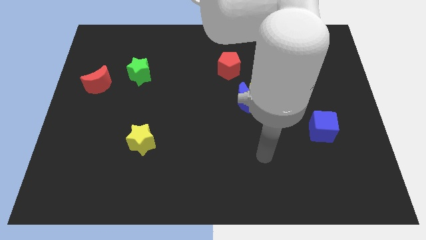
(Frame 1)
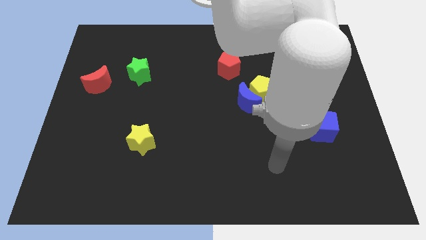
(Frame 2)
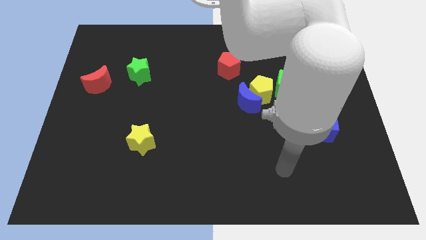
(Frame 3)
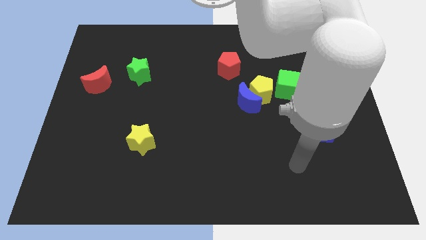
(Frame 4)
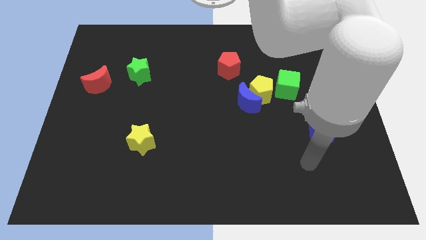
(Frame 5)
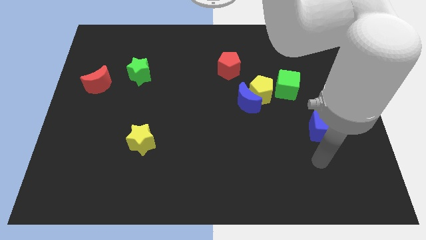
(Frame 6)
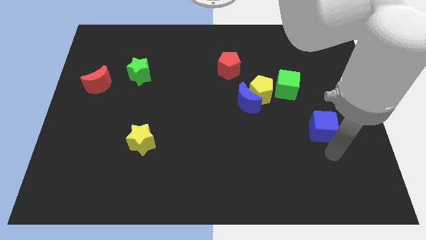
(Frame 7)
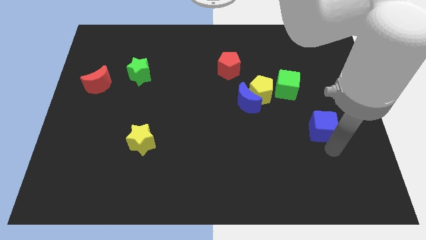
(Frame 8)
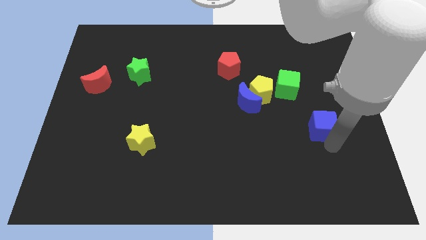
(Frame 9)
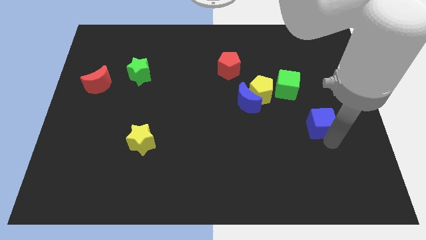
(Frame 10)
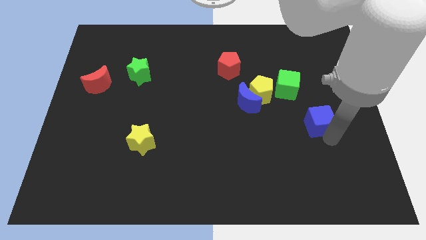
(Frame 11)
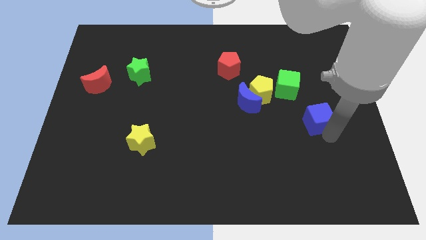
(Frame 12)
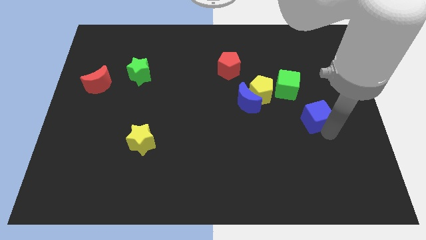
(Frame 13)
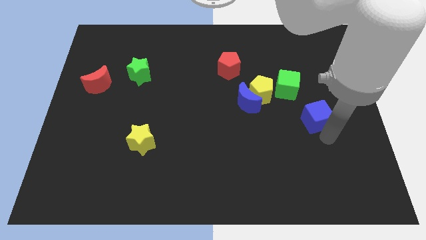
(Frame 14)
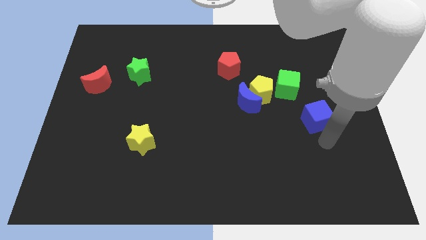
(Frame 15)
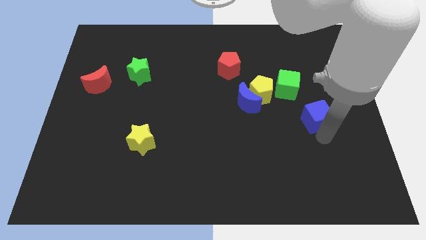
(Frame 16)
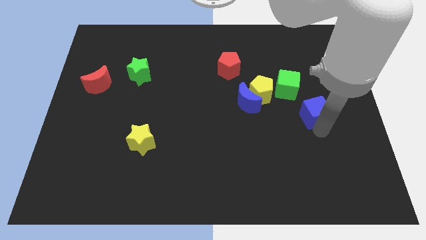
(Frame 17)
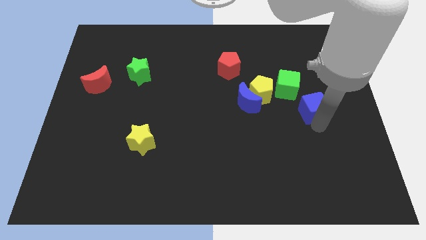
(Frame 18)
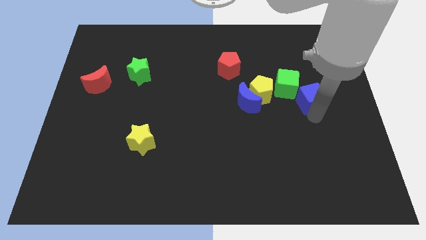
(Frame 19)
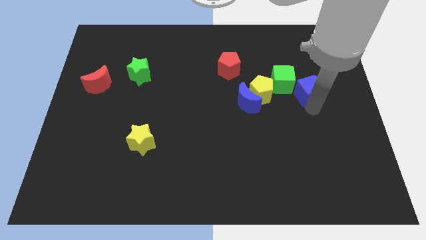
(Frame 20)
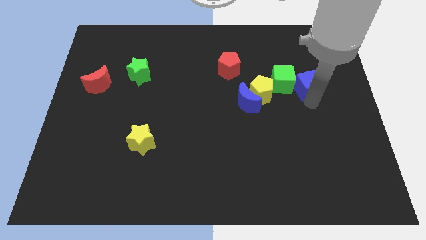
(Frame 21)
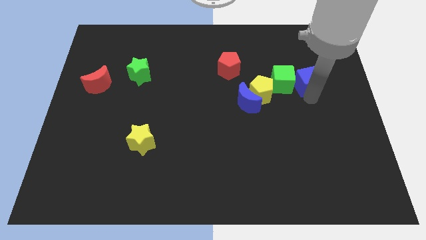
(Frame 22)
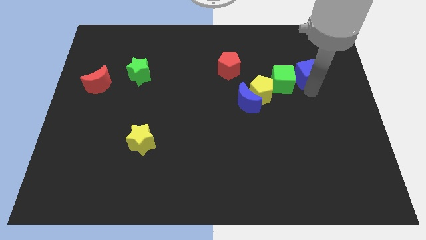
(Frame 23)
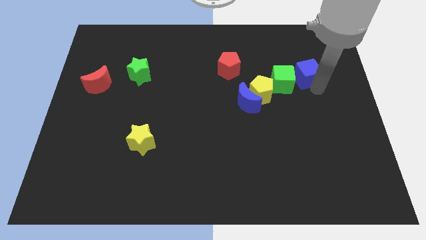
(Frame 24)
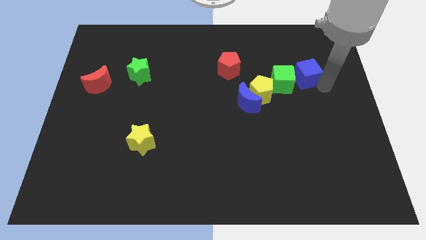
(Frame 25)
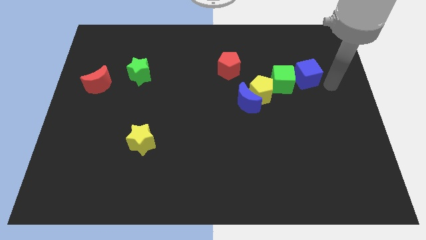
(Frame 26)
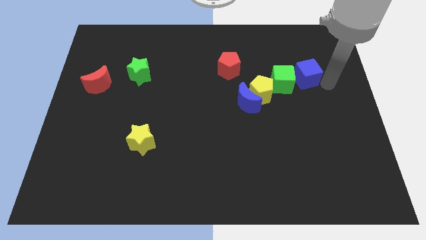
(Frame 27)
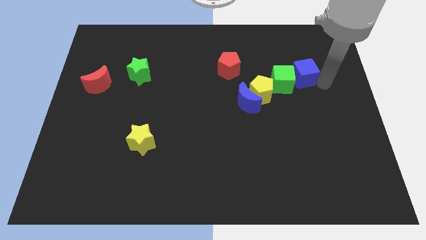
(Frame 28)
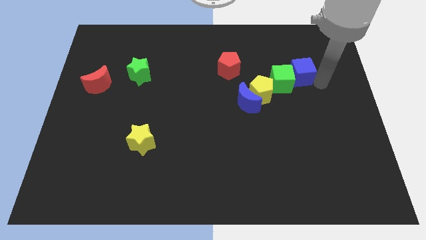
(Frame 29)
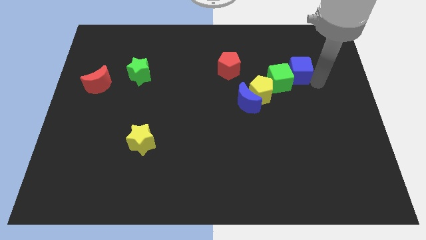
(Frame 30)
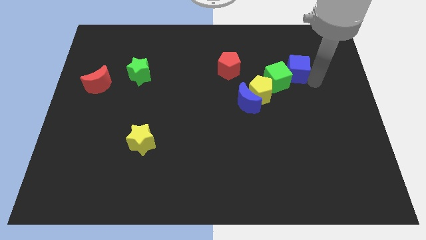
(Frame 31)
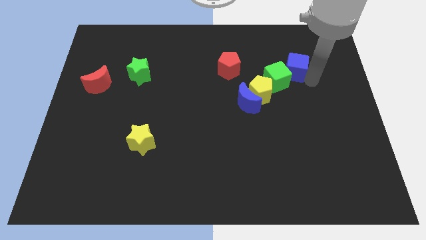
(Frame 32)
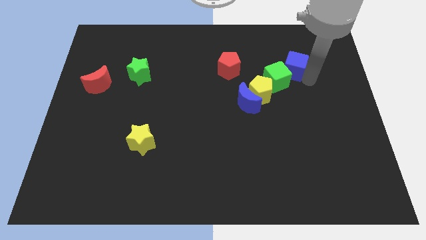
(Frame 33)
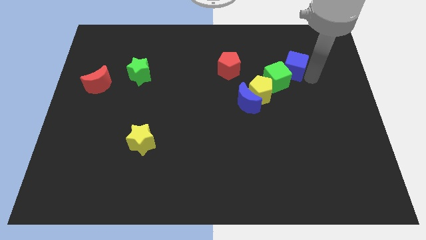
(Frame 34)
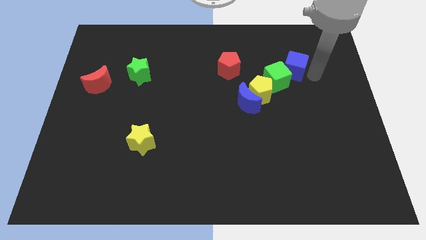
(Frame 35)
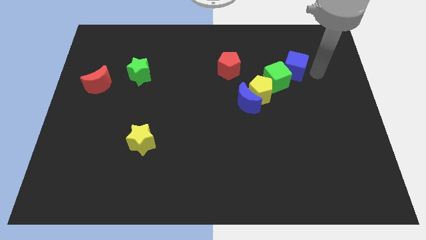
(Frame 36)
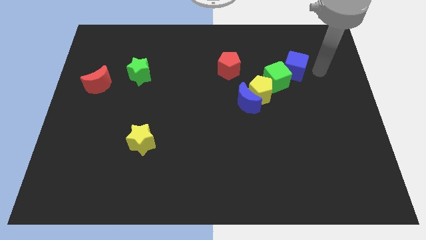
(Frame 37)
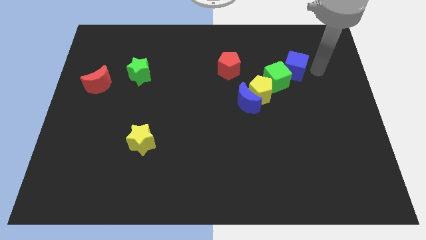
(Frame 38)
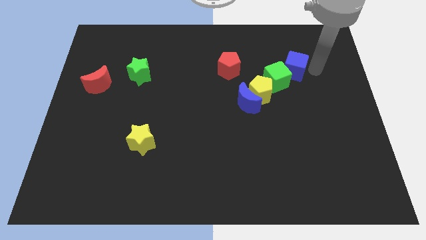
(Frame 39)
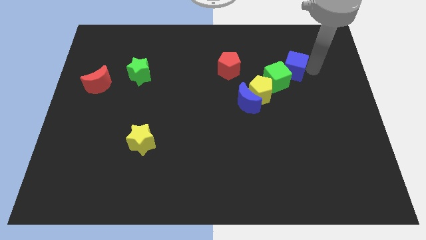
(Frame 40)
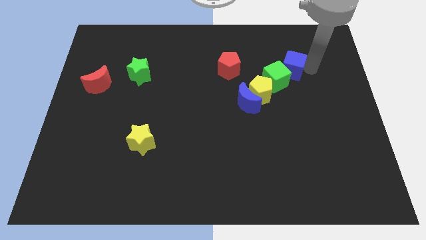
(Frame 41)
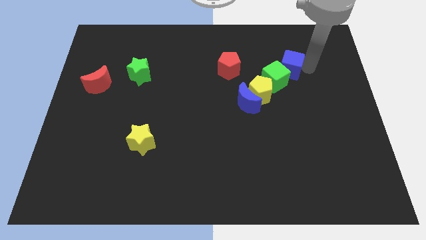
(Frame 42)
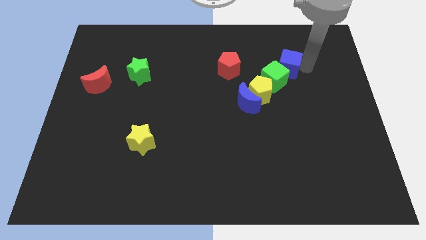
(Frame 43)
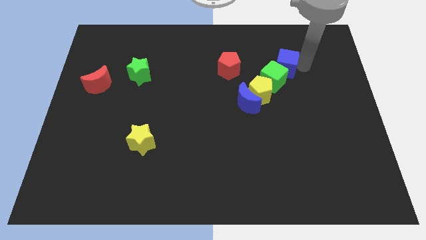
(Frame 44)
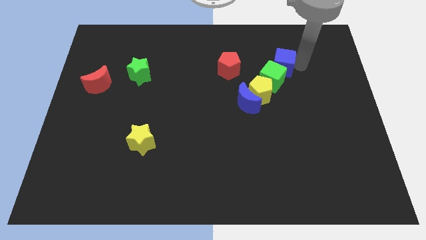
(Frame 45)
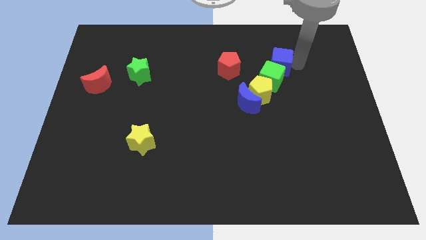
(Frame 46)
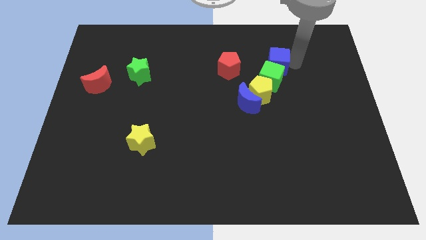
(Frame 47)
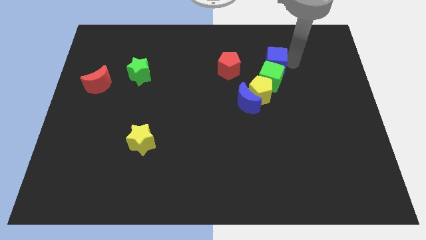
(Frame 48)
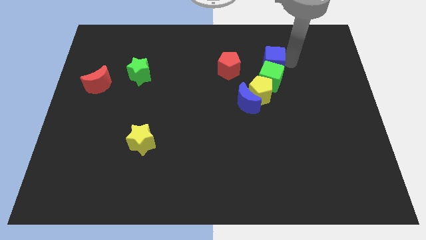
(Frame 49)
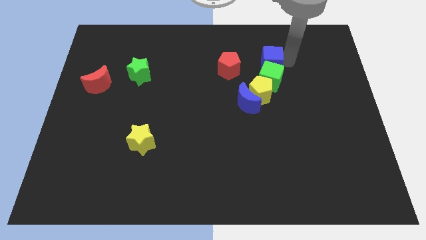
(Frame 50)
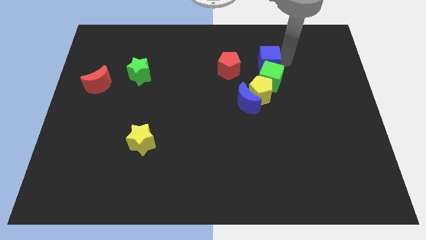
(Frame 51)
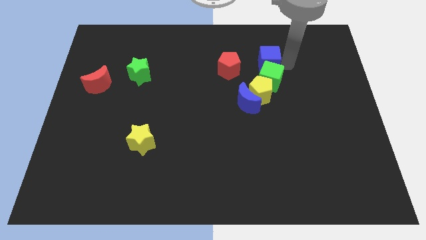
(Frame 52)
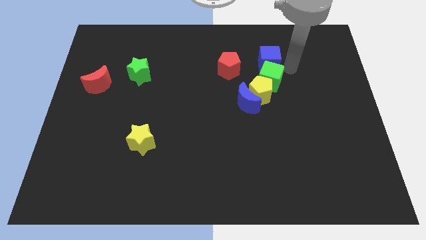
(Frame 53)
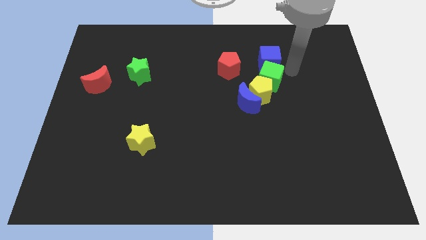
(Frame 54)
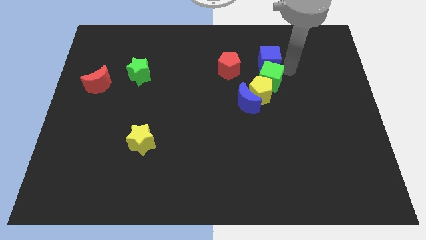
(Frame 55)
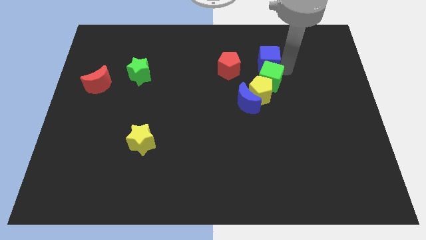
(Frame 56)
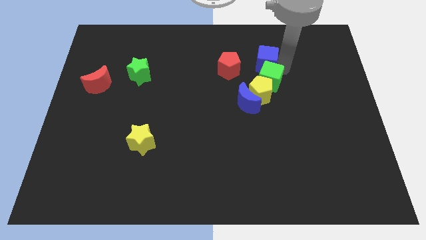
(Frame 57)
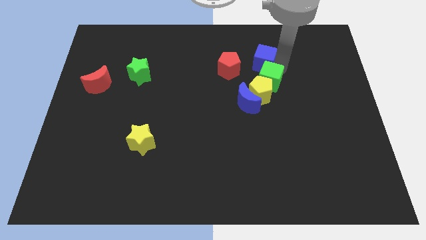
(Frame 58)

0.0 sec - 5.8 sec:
move the blue cube to the top right side of the red pentagon

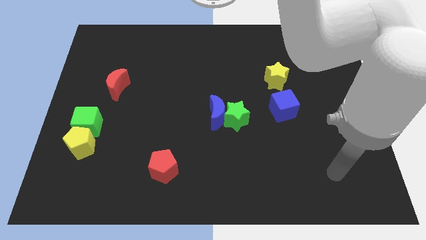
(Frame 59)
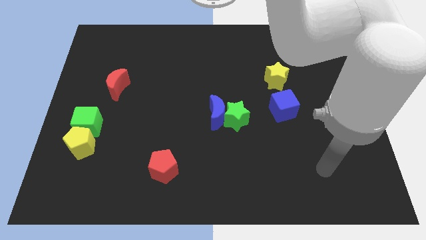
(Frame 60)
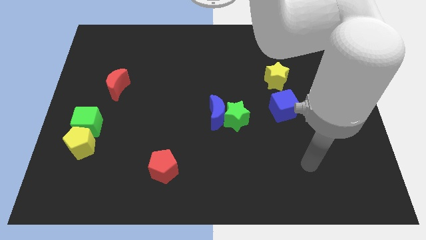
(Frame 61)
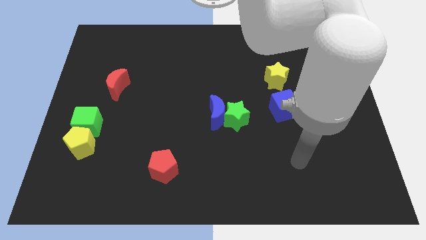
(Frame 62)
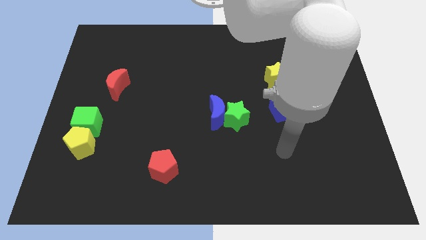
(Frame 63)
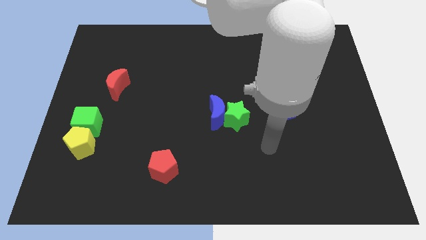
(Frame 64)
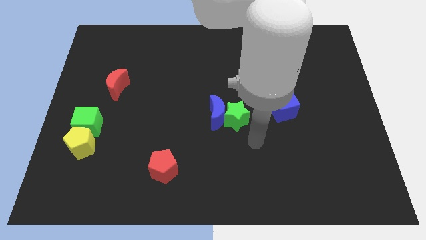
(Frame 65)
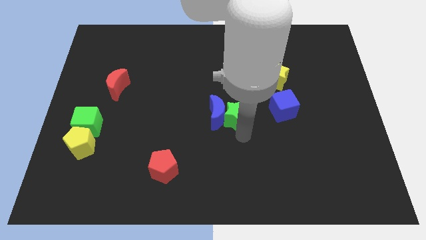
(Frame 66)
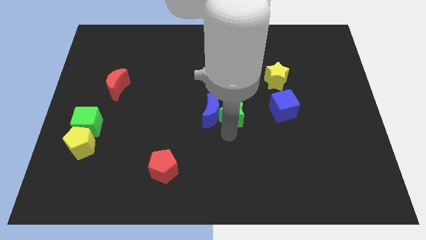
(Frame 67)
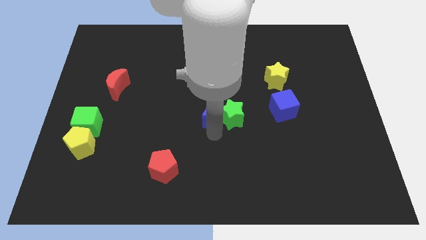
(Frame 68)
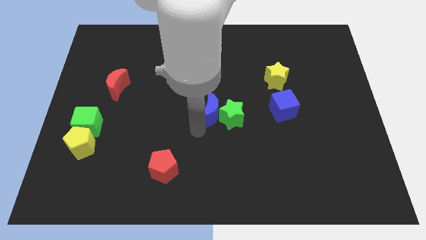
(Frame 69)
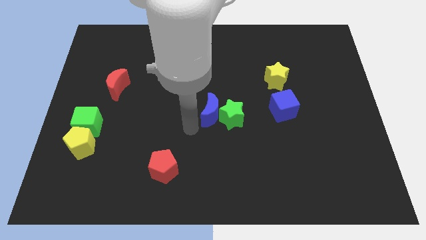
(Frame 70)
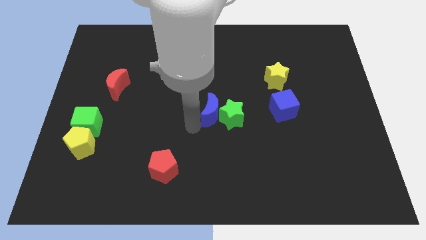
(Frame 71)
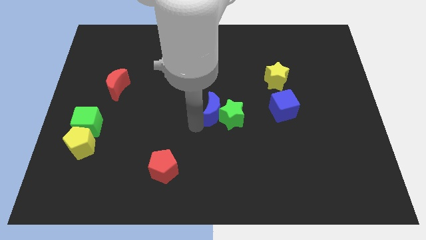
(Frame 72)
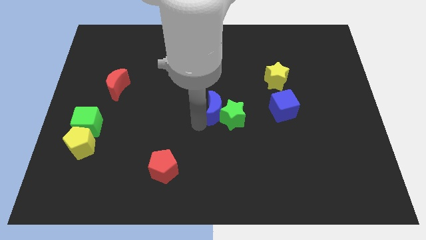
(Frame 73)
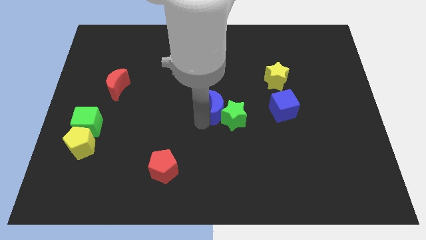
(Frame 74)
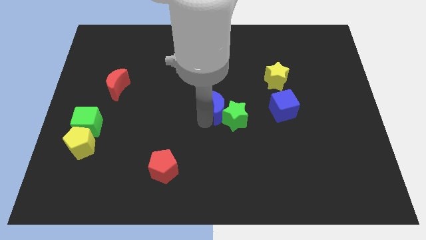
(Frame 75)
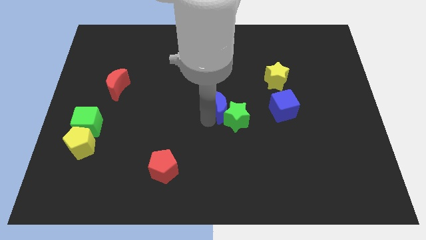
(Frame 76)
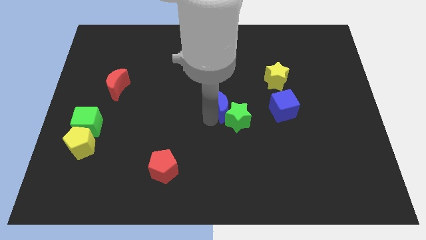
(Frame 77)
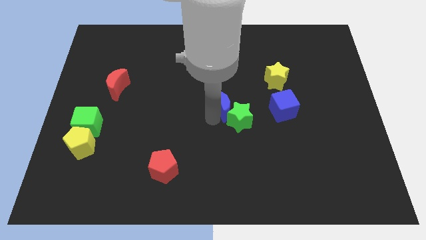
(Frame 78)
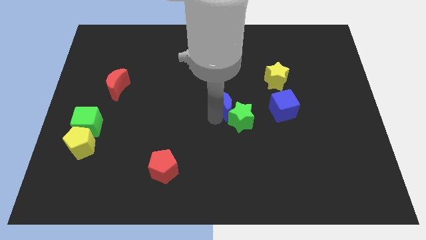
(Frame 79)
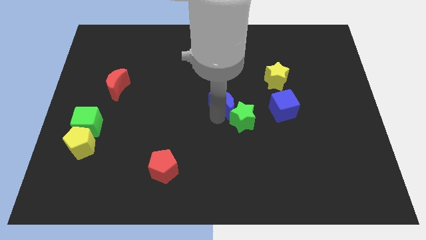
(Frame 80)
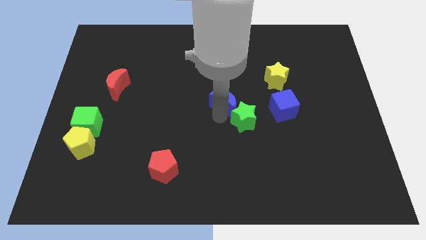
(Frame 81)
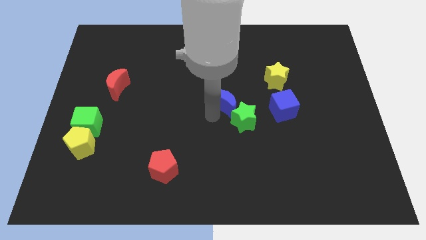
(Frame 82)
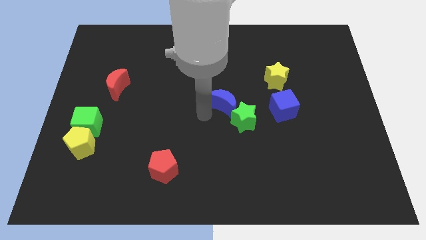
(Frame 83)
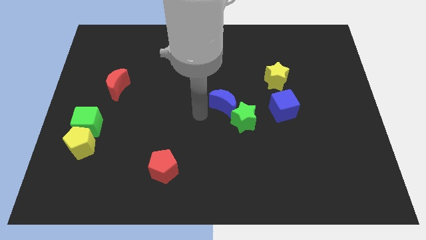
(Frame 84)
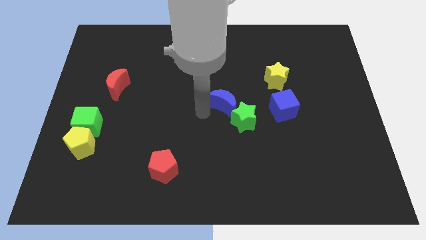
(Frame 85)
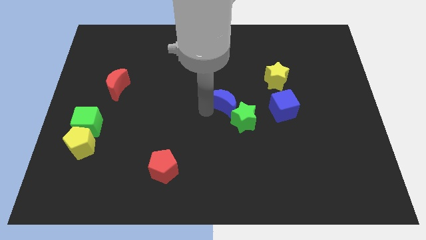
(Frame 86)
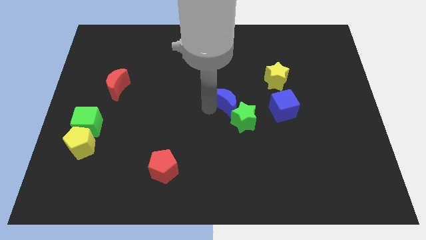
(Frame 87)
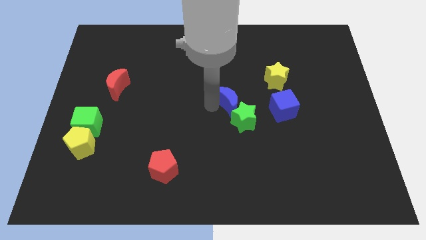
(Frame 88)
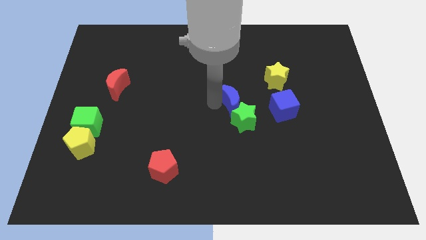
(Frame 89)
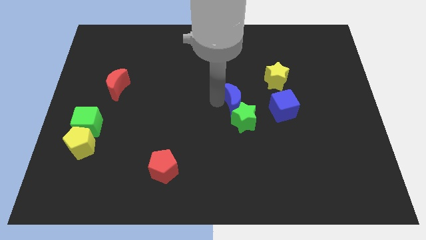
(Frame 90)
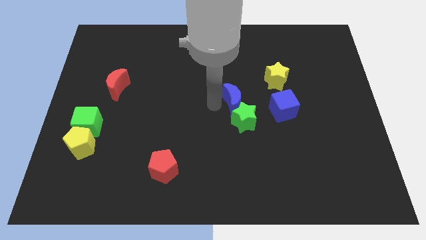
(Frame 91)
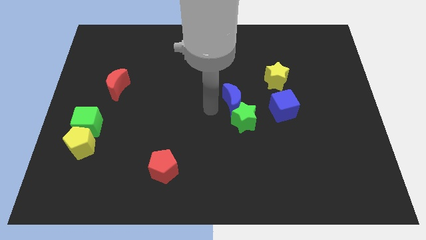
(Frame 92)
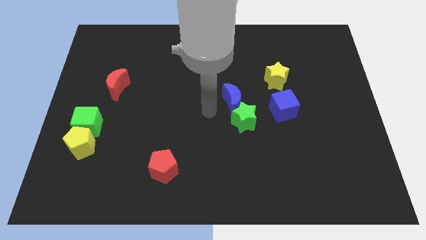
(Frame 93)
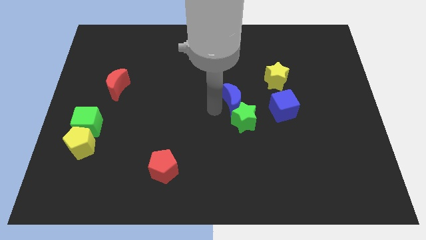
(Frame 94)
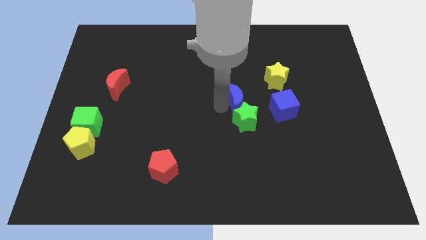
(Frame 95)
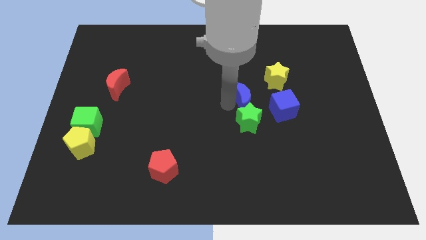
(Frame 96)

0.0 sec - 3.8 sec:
push the blue moon to the top left side of the blue cube
